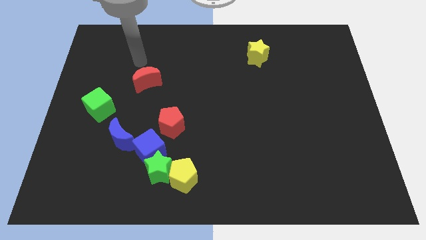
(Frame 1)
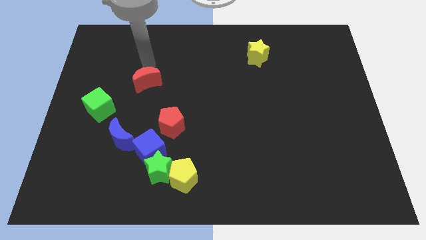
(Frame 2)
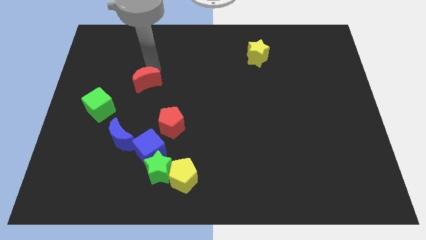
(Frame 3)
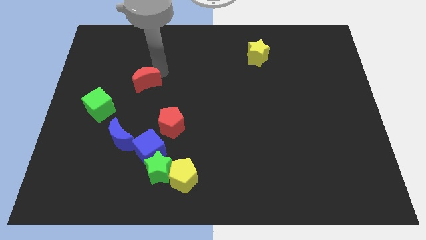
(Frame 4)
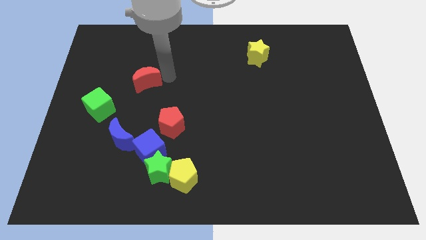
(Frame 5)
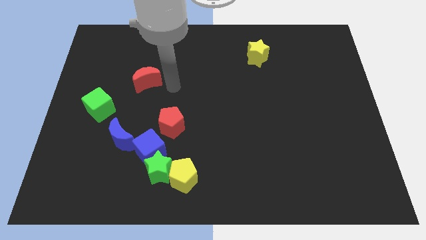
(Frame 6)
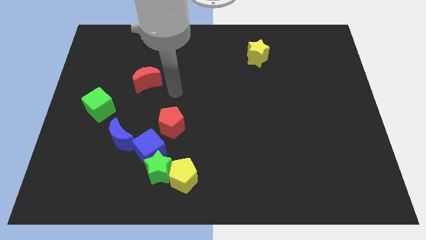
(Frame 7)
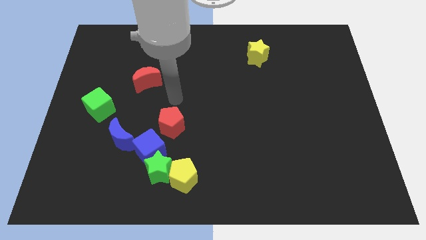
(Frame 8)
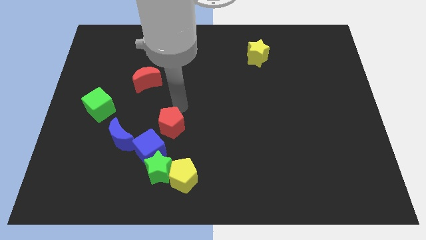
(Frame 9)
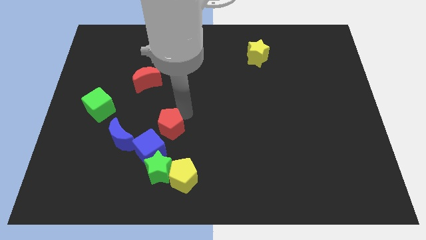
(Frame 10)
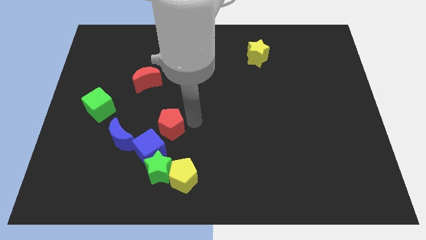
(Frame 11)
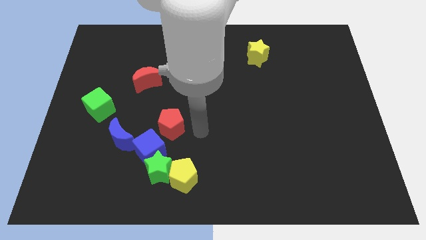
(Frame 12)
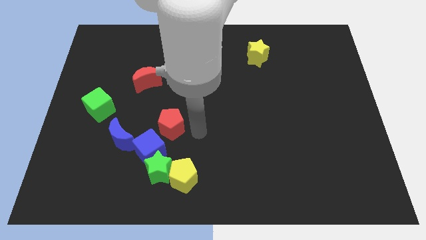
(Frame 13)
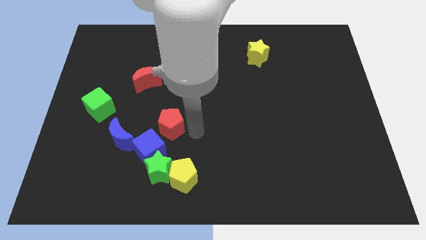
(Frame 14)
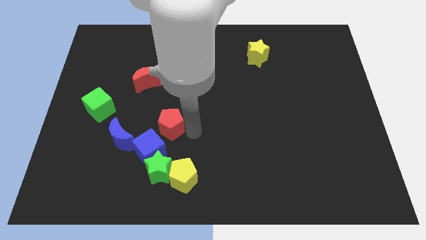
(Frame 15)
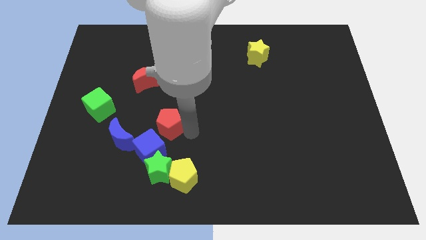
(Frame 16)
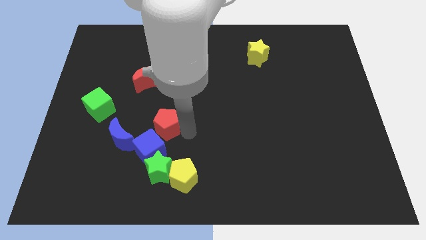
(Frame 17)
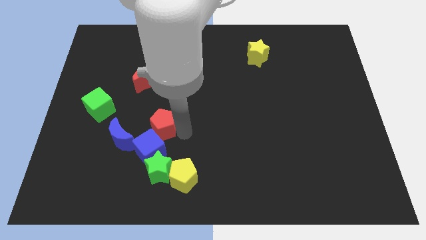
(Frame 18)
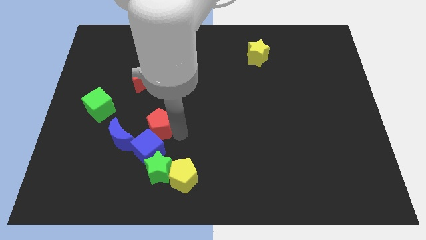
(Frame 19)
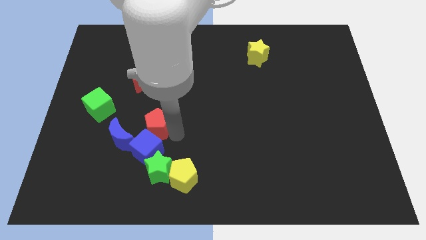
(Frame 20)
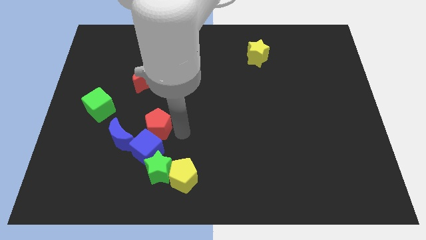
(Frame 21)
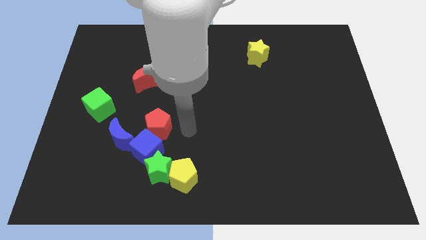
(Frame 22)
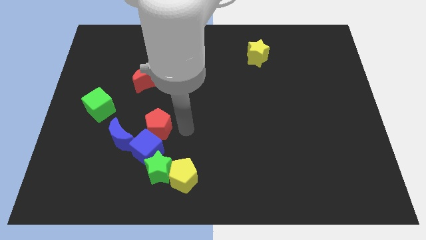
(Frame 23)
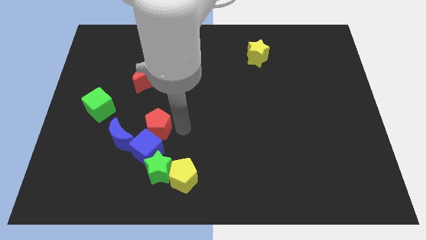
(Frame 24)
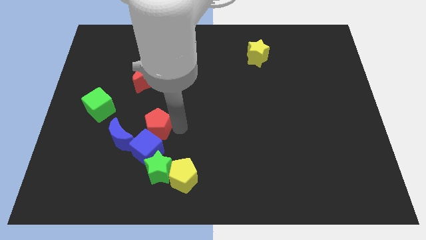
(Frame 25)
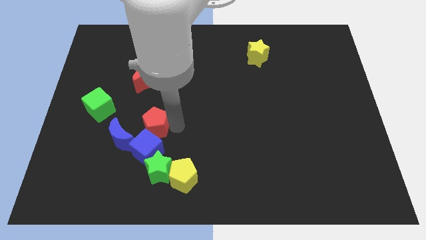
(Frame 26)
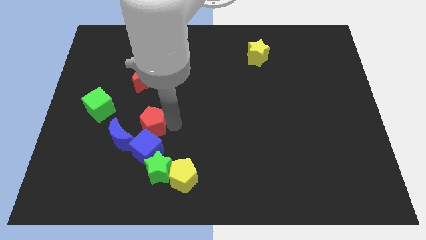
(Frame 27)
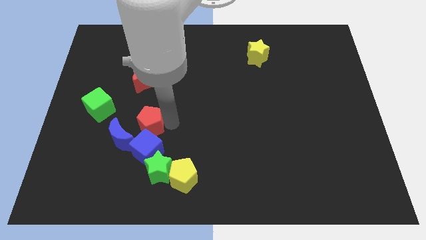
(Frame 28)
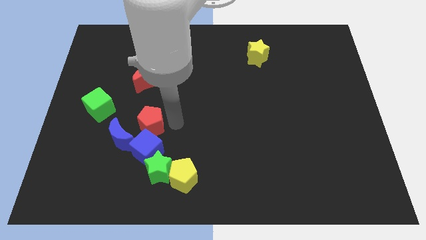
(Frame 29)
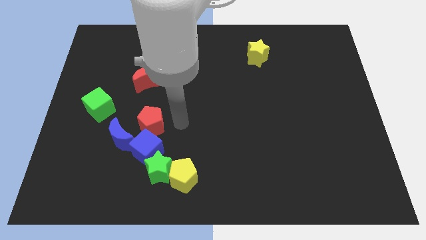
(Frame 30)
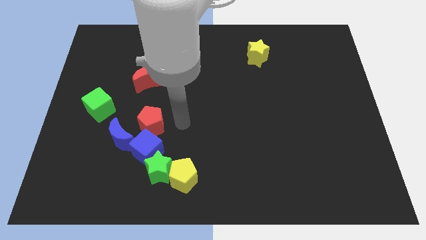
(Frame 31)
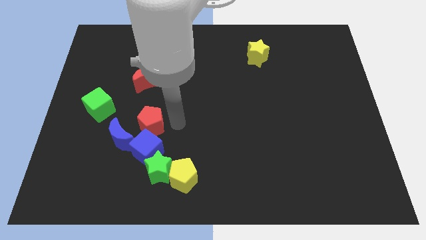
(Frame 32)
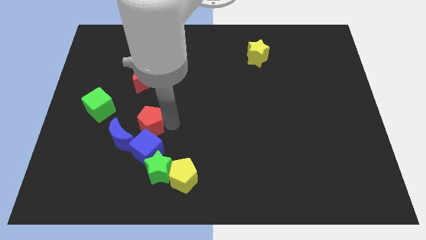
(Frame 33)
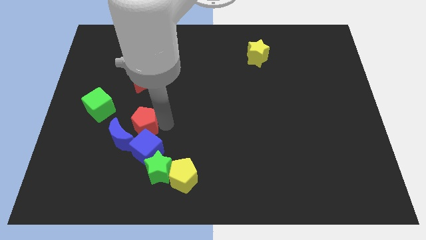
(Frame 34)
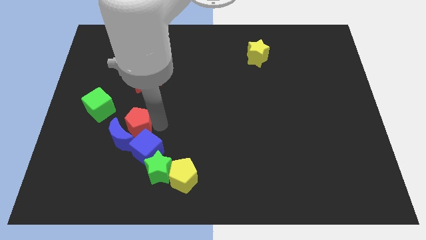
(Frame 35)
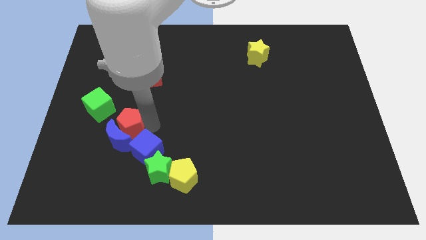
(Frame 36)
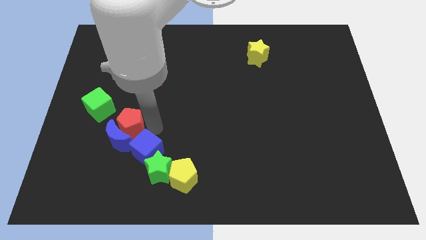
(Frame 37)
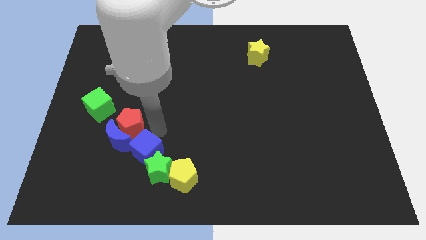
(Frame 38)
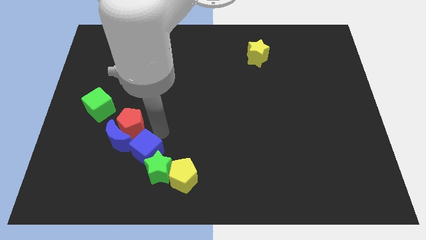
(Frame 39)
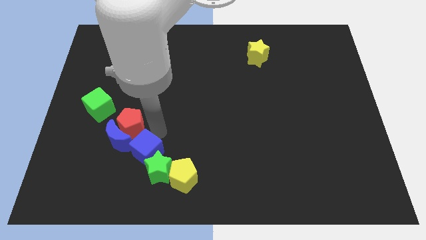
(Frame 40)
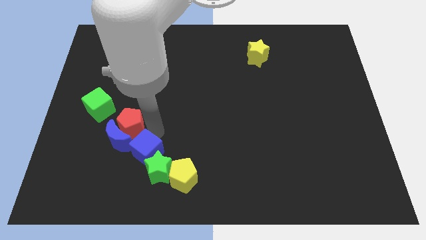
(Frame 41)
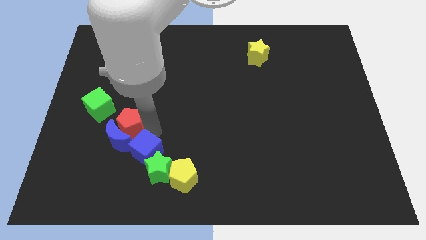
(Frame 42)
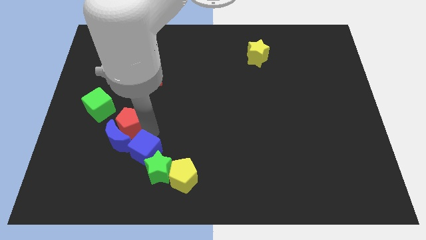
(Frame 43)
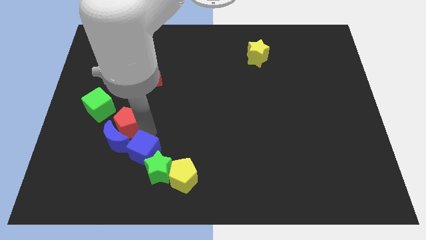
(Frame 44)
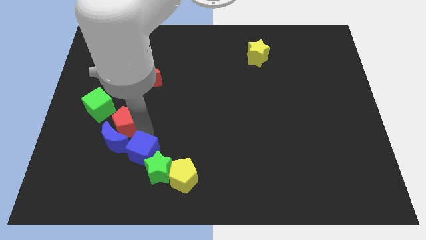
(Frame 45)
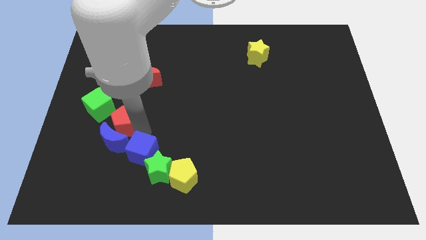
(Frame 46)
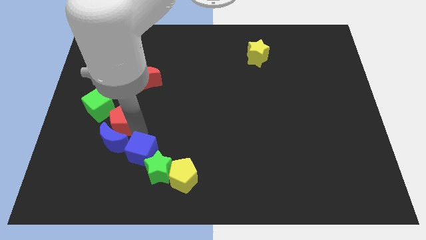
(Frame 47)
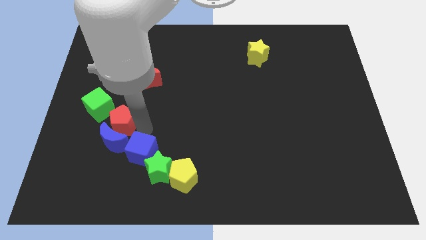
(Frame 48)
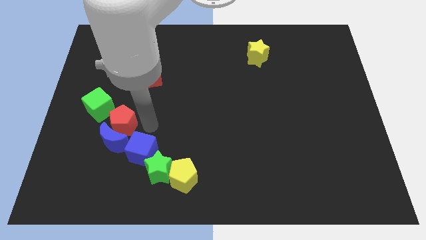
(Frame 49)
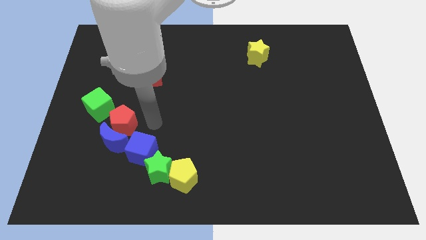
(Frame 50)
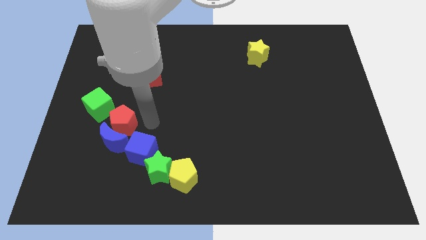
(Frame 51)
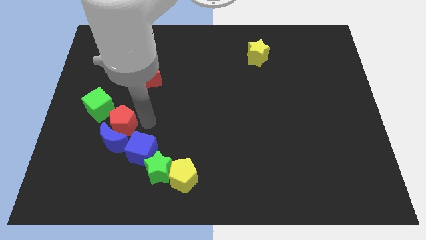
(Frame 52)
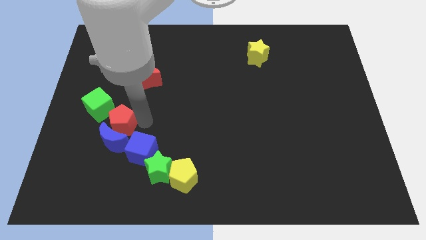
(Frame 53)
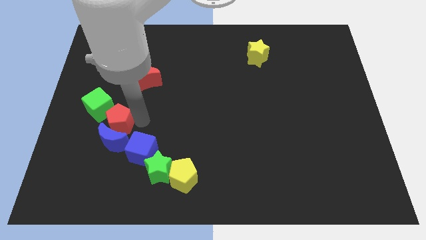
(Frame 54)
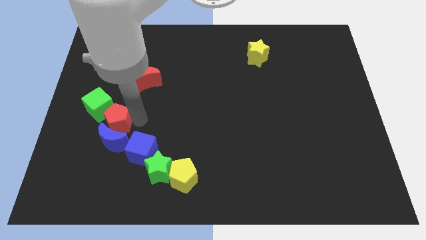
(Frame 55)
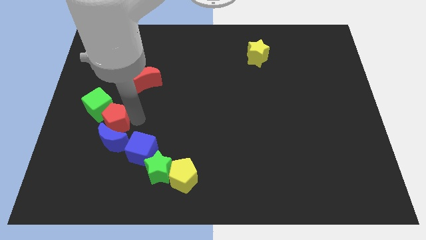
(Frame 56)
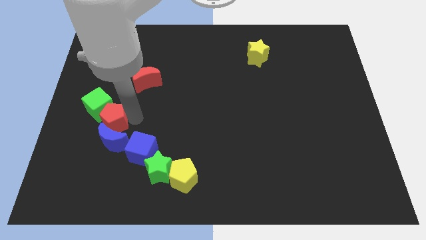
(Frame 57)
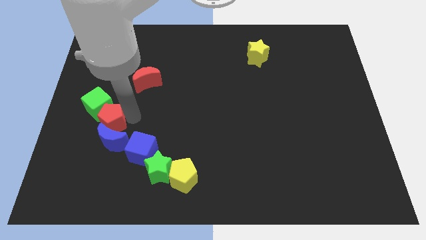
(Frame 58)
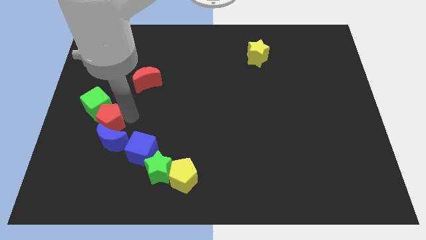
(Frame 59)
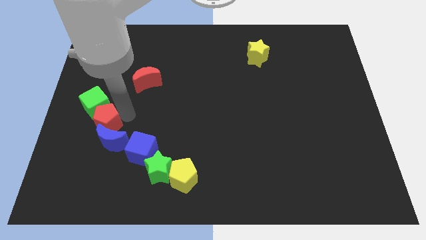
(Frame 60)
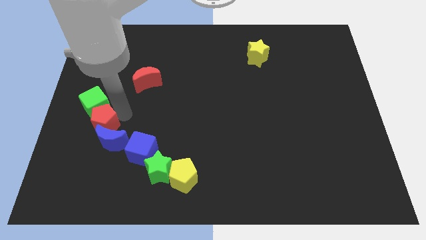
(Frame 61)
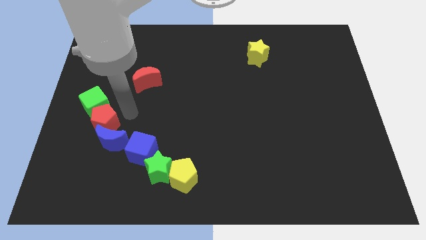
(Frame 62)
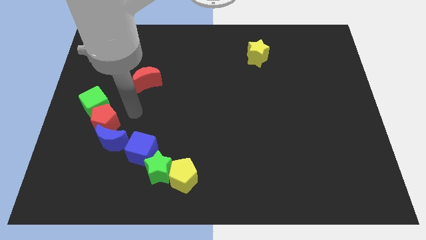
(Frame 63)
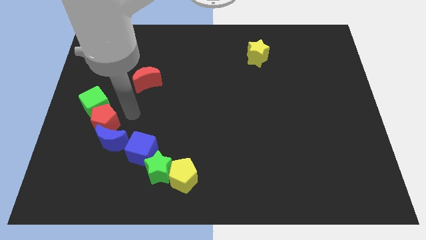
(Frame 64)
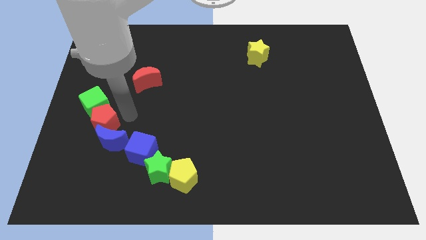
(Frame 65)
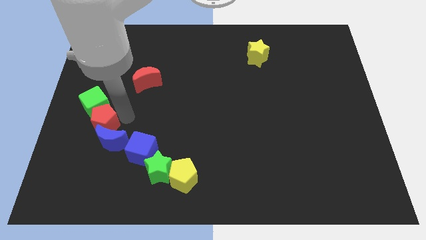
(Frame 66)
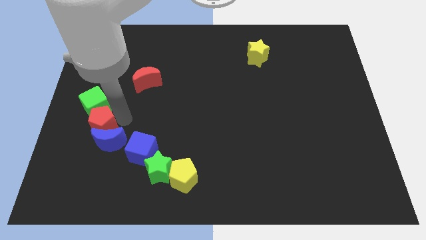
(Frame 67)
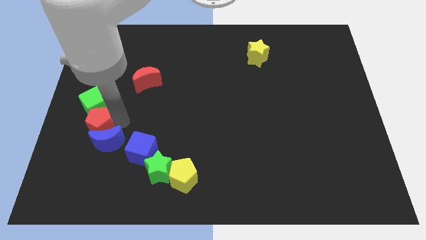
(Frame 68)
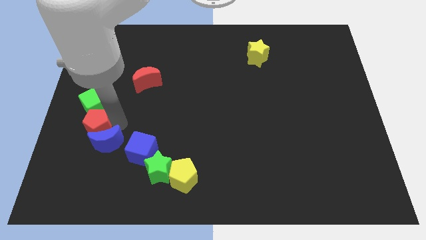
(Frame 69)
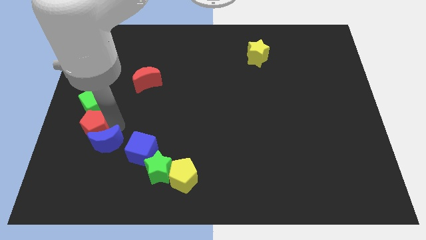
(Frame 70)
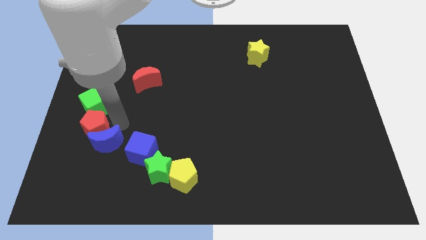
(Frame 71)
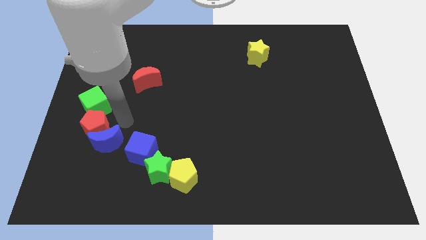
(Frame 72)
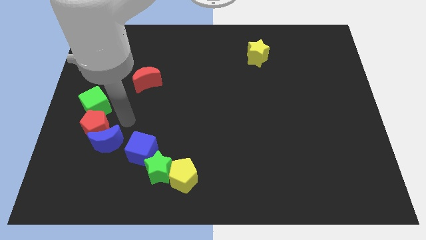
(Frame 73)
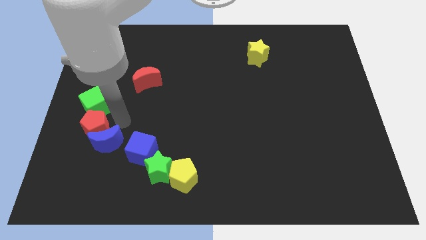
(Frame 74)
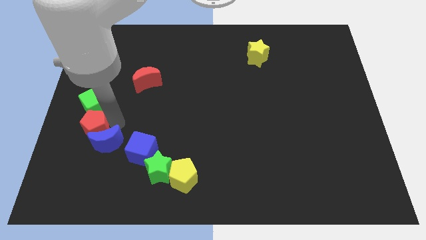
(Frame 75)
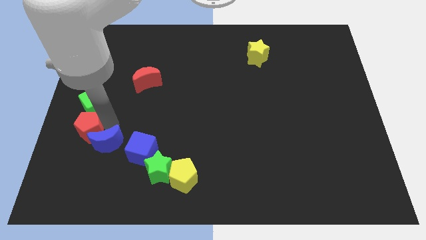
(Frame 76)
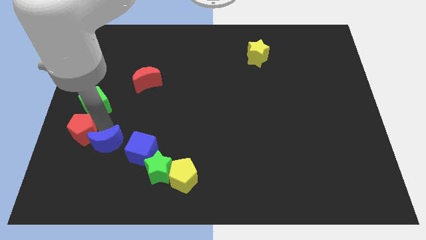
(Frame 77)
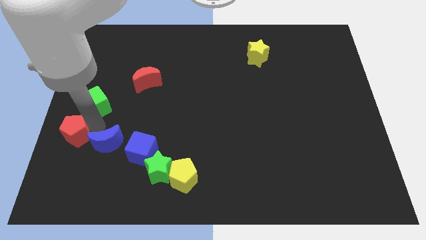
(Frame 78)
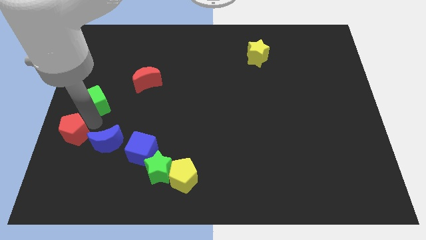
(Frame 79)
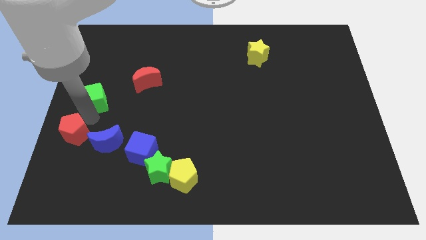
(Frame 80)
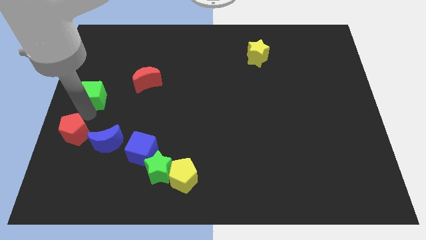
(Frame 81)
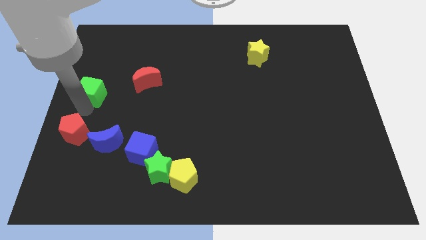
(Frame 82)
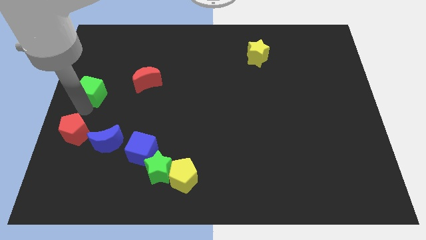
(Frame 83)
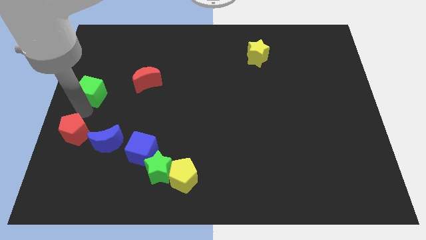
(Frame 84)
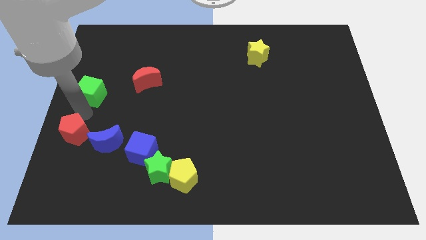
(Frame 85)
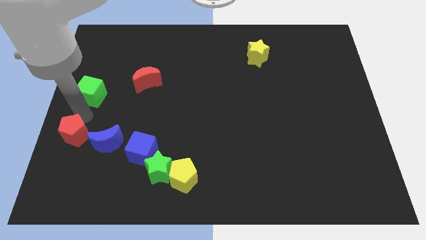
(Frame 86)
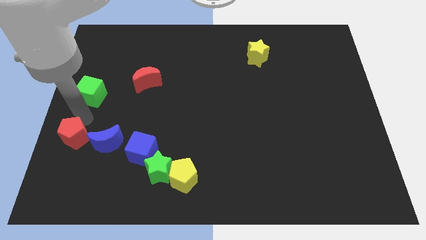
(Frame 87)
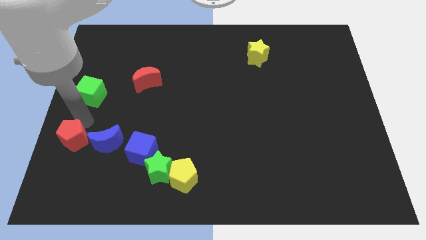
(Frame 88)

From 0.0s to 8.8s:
slide the red pentagon a little diagonally down and to the left
